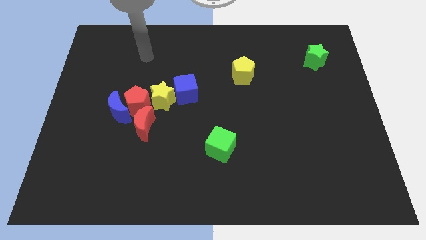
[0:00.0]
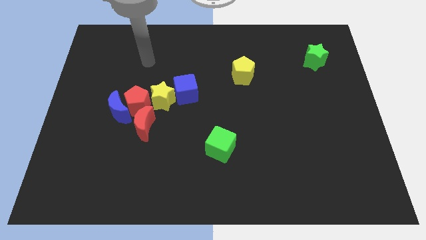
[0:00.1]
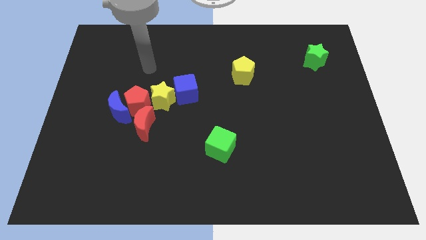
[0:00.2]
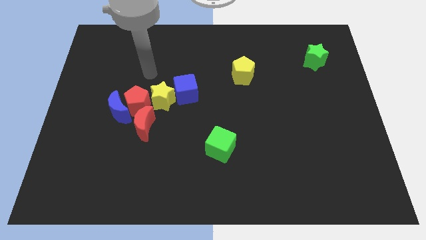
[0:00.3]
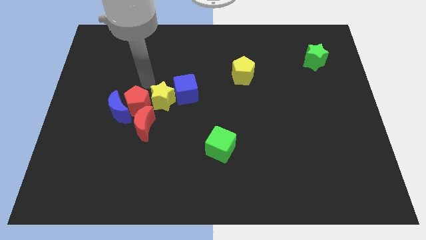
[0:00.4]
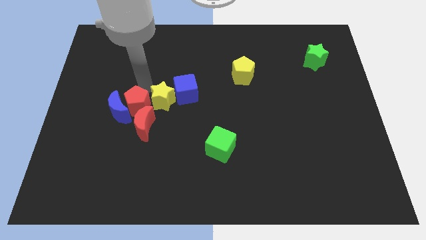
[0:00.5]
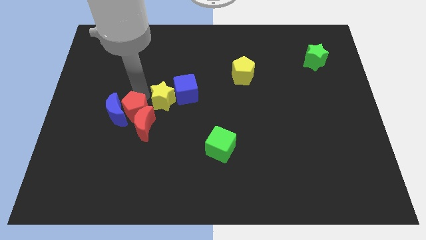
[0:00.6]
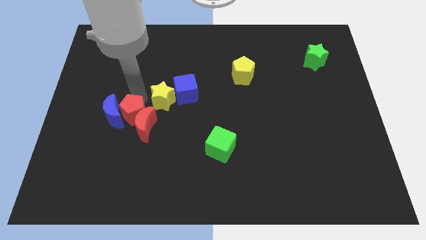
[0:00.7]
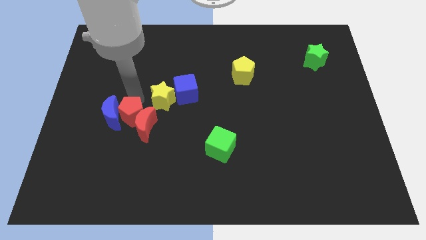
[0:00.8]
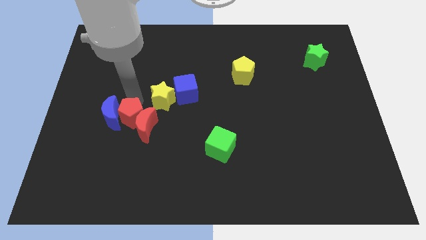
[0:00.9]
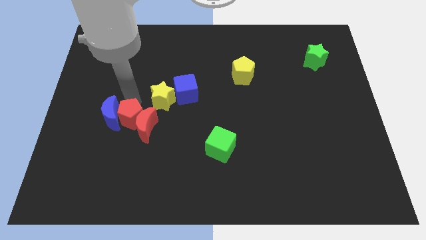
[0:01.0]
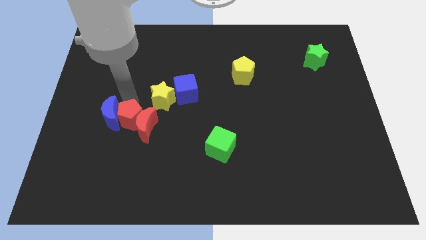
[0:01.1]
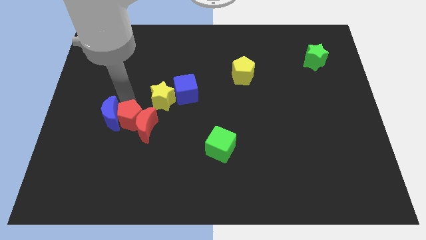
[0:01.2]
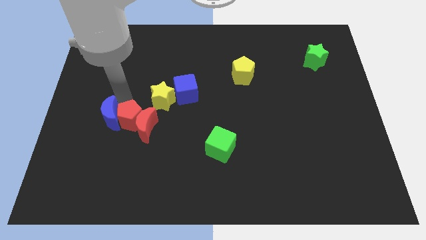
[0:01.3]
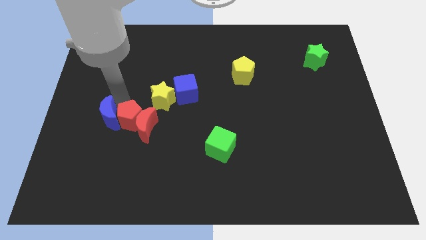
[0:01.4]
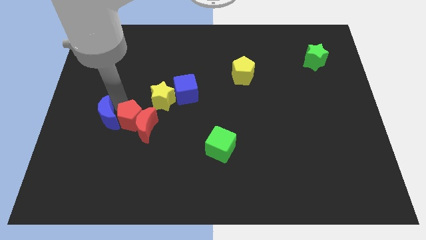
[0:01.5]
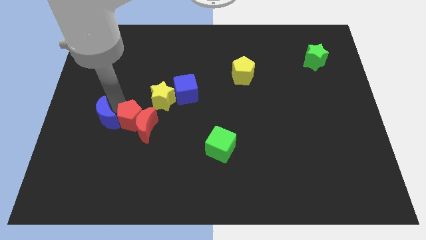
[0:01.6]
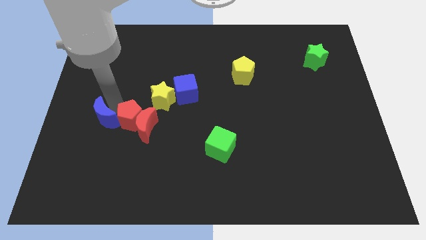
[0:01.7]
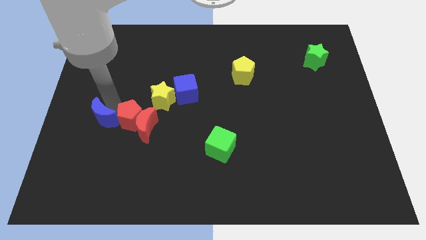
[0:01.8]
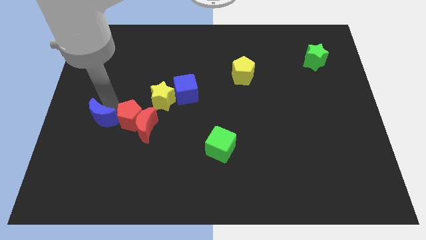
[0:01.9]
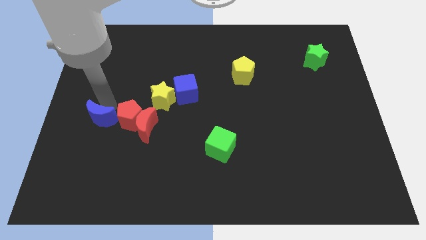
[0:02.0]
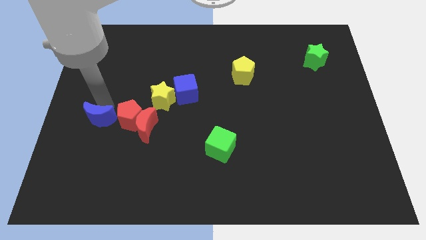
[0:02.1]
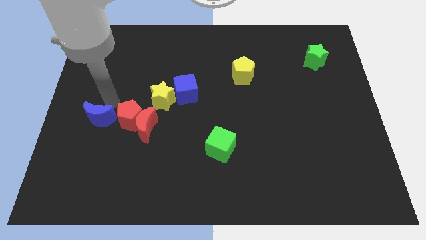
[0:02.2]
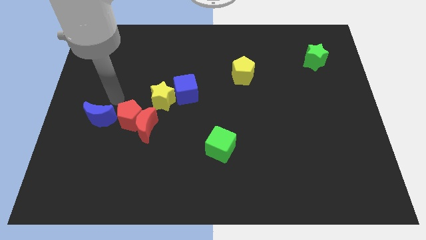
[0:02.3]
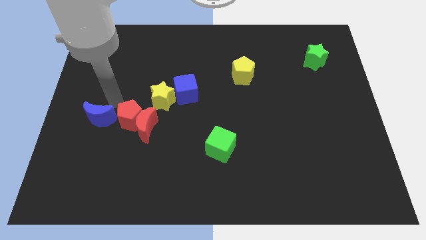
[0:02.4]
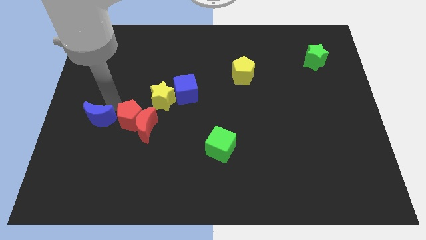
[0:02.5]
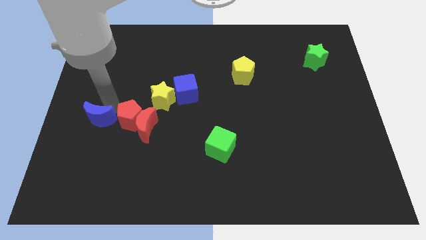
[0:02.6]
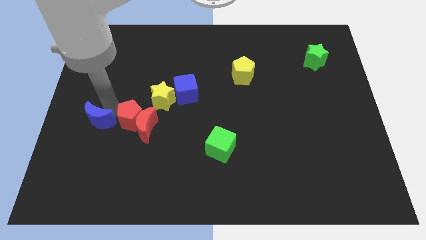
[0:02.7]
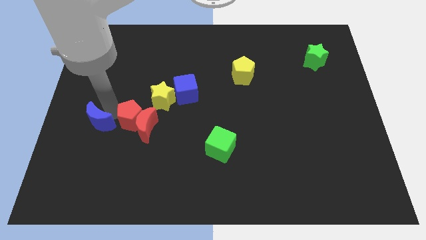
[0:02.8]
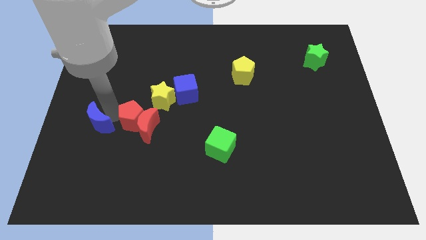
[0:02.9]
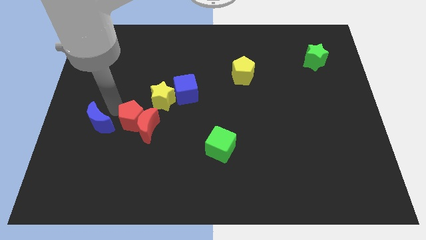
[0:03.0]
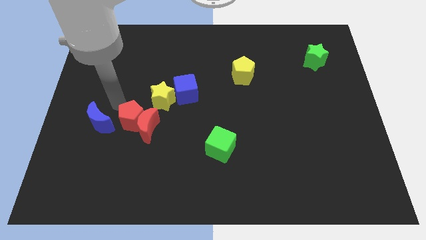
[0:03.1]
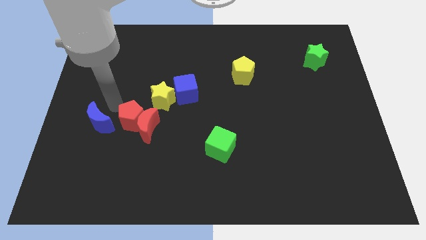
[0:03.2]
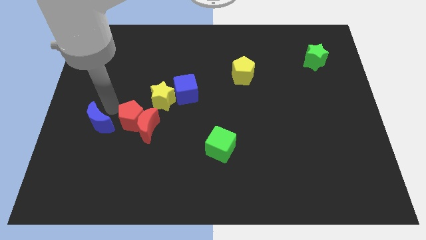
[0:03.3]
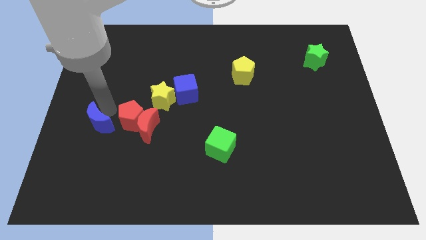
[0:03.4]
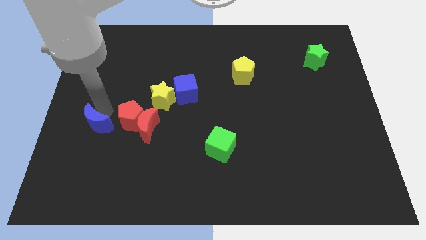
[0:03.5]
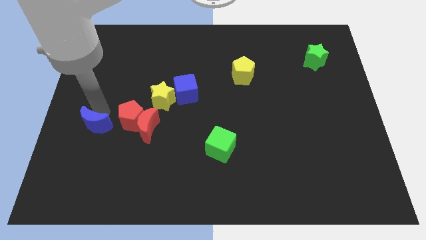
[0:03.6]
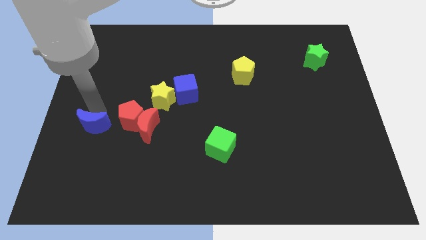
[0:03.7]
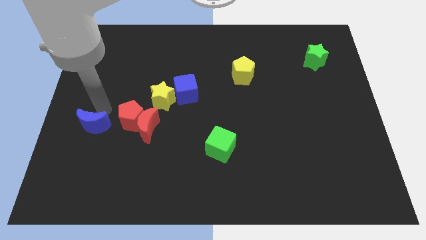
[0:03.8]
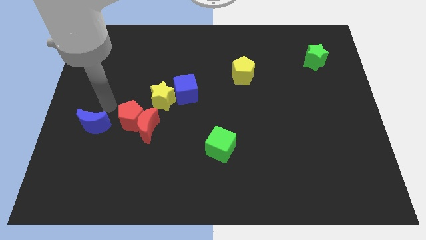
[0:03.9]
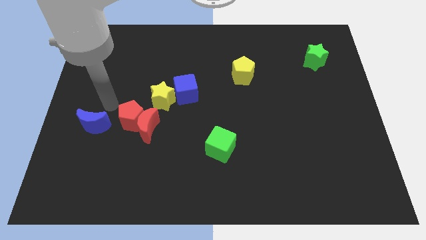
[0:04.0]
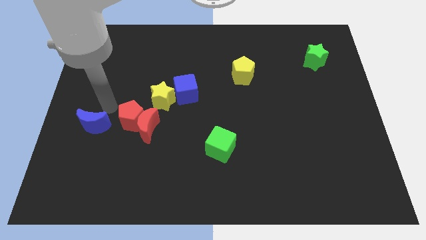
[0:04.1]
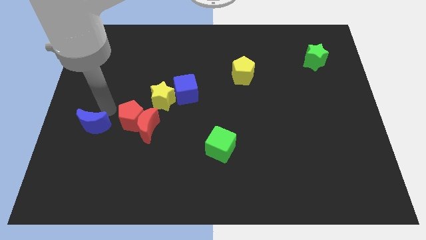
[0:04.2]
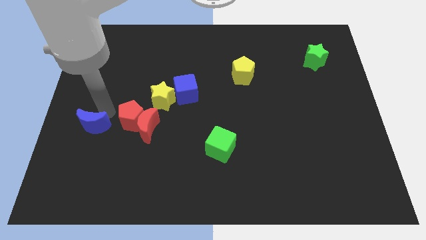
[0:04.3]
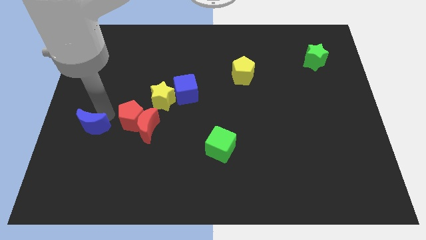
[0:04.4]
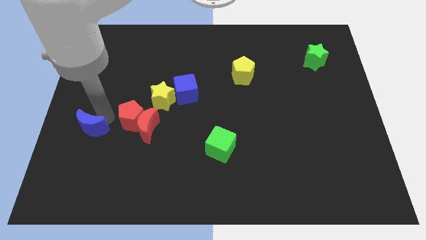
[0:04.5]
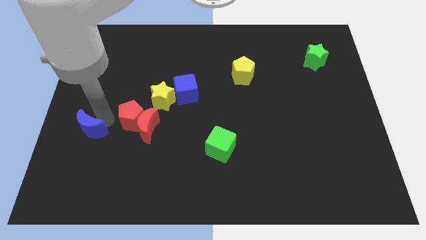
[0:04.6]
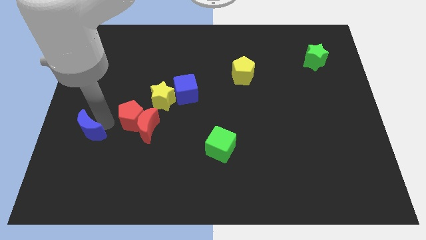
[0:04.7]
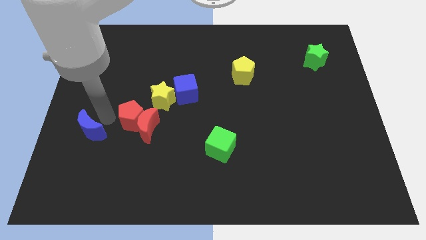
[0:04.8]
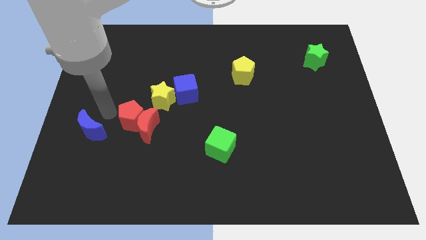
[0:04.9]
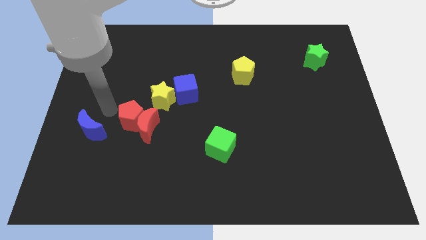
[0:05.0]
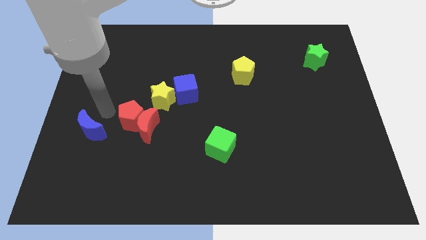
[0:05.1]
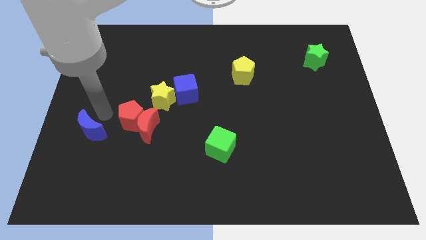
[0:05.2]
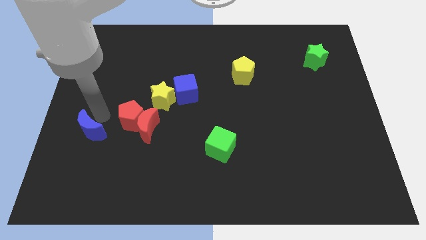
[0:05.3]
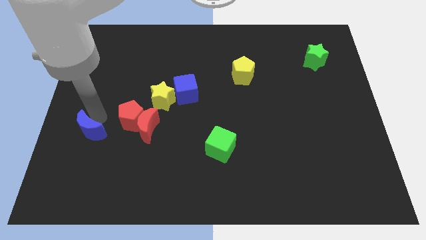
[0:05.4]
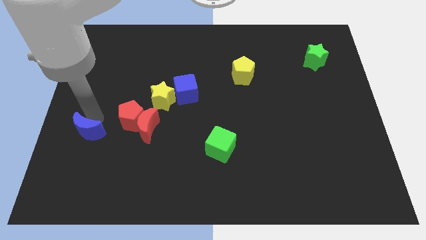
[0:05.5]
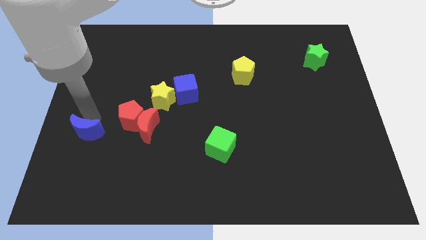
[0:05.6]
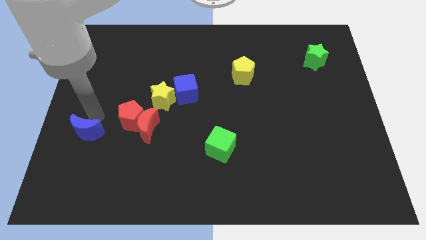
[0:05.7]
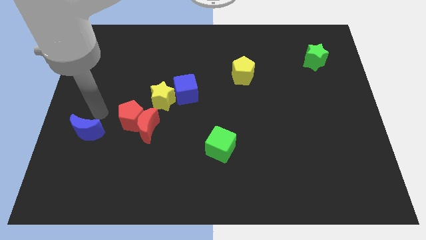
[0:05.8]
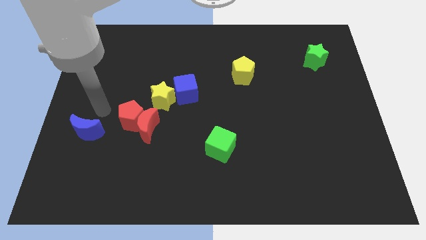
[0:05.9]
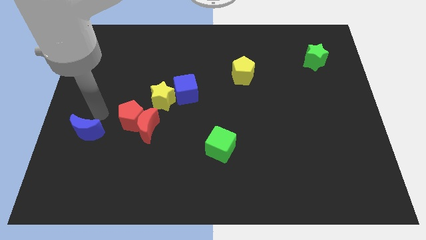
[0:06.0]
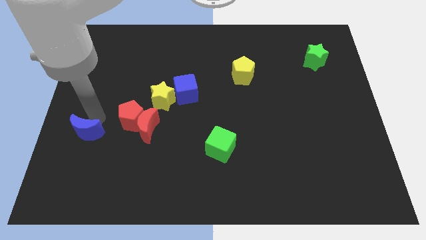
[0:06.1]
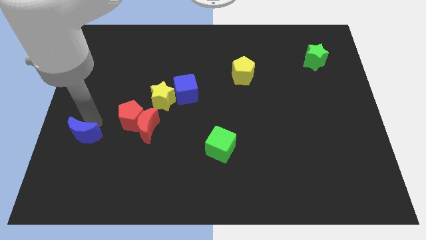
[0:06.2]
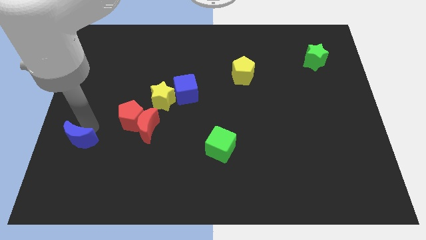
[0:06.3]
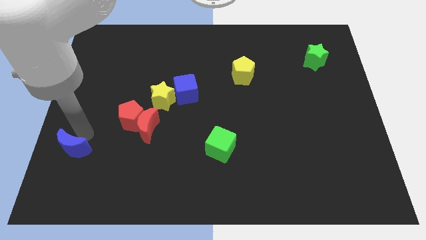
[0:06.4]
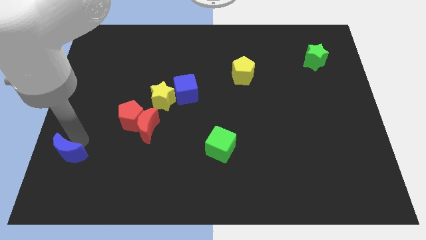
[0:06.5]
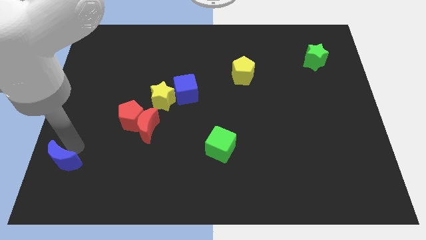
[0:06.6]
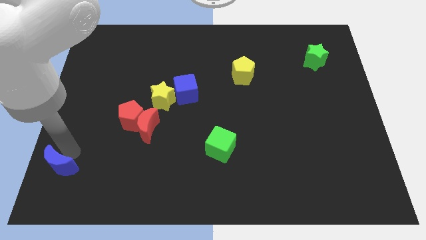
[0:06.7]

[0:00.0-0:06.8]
slide the blue moon to the bottom left corner
